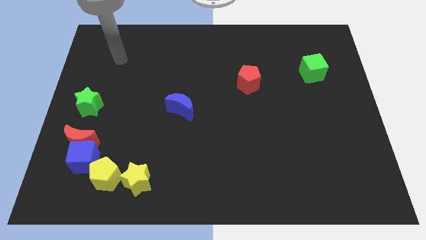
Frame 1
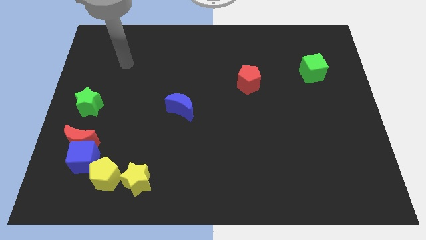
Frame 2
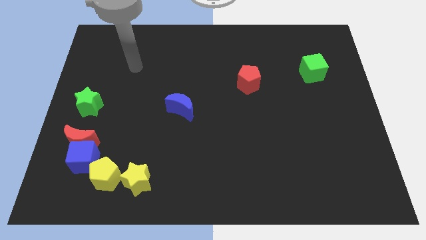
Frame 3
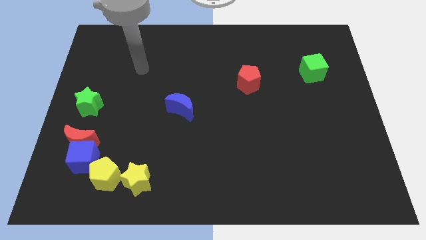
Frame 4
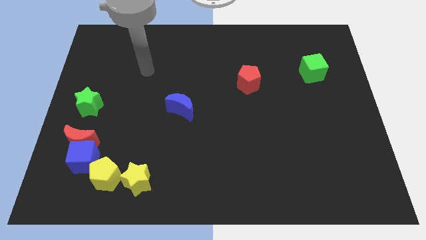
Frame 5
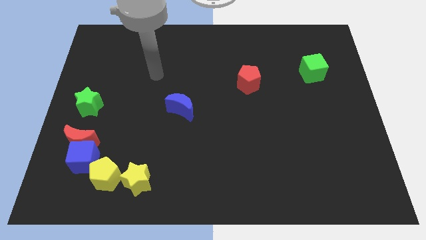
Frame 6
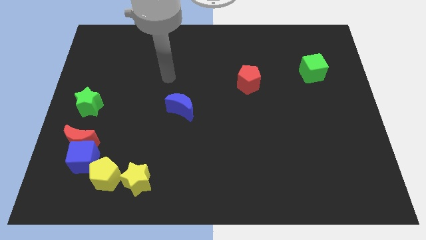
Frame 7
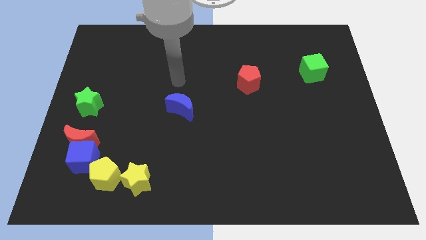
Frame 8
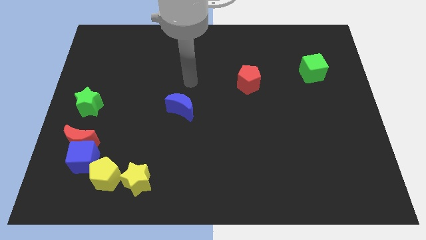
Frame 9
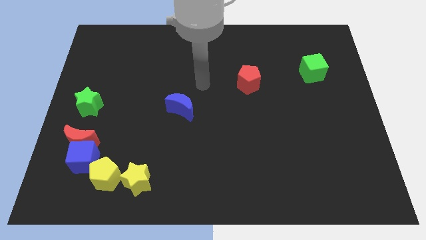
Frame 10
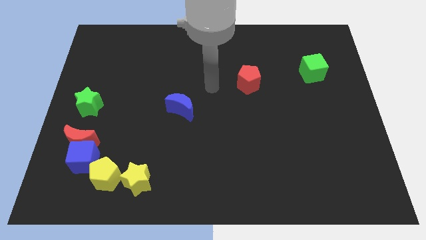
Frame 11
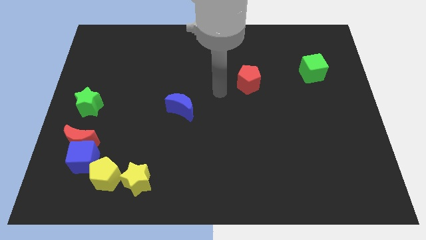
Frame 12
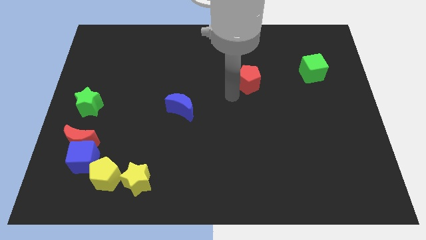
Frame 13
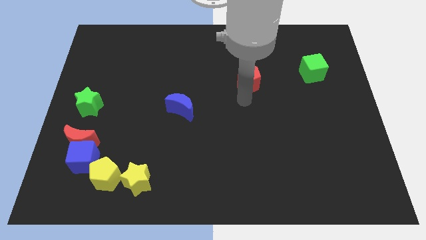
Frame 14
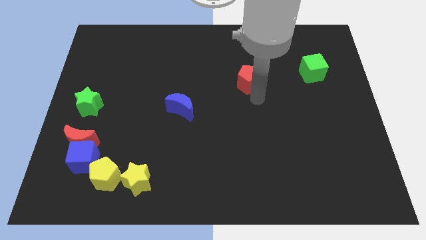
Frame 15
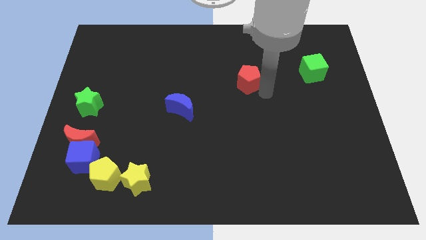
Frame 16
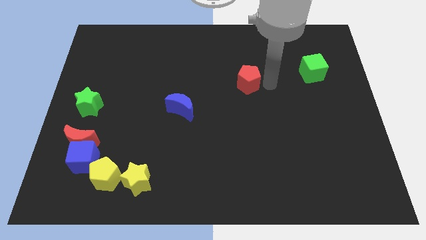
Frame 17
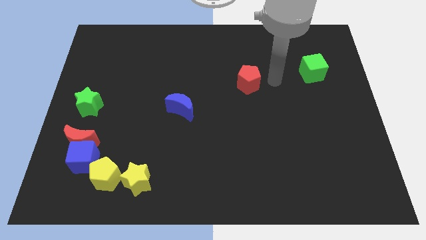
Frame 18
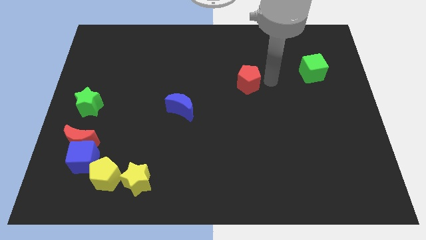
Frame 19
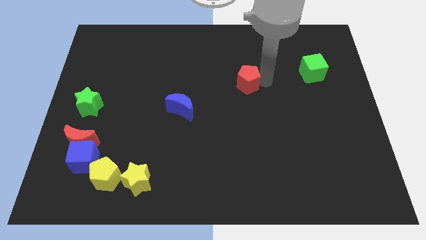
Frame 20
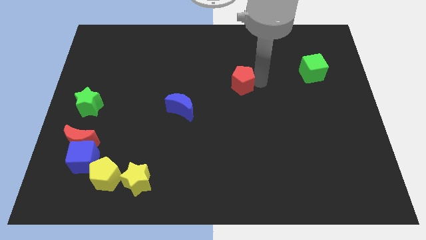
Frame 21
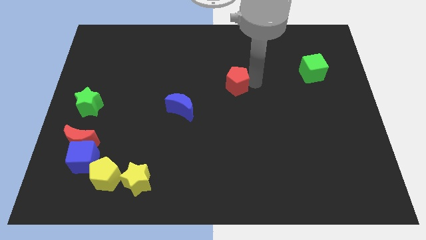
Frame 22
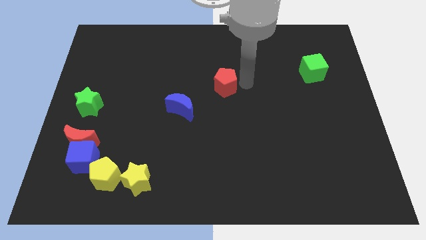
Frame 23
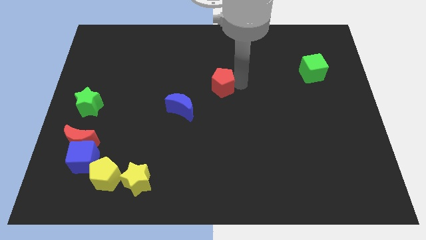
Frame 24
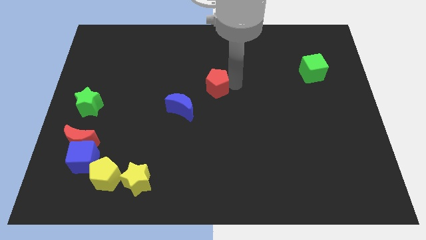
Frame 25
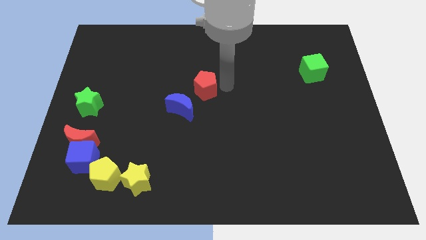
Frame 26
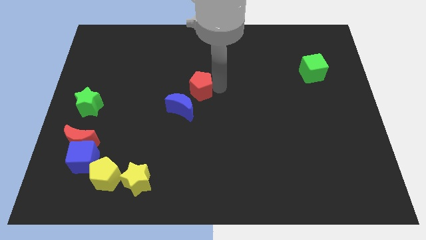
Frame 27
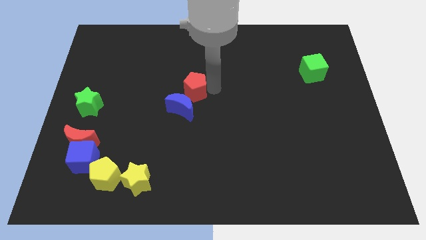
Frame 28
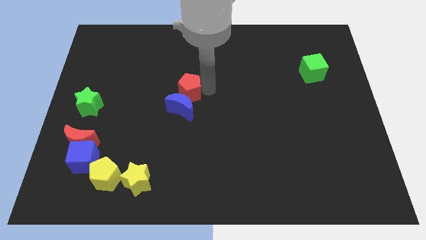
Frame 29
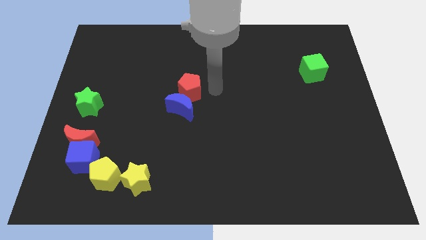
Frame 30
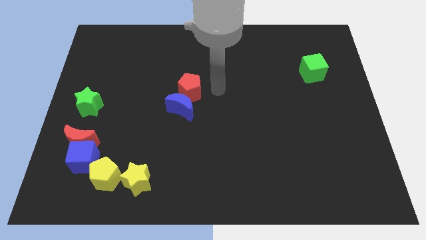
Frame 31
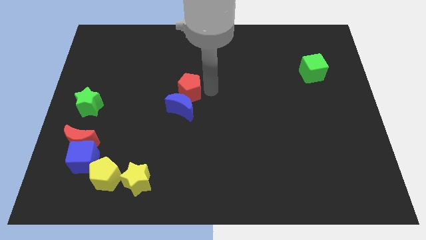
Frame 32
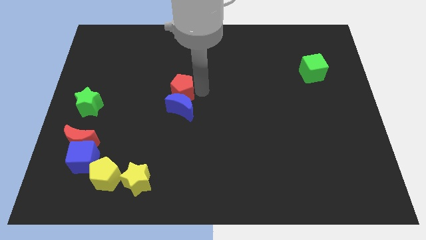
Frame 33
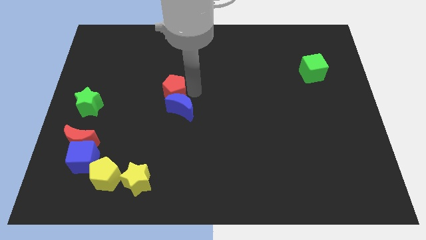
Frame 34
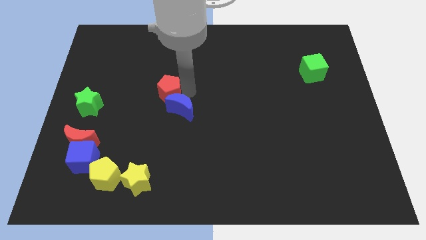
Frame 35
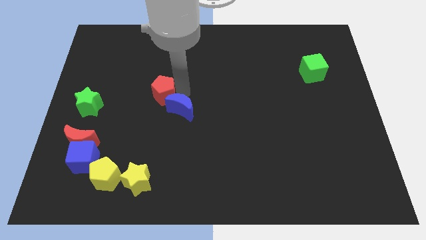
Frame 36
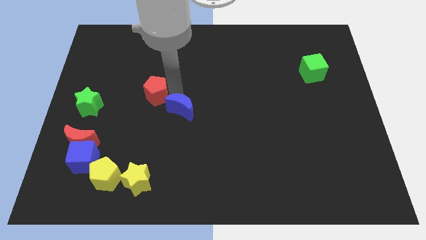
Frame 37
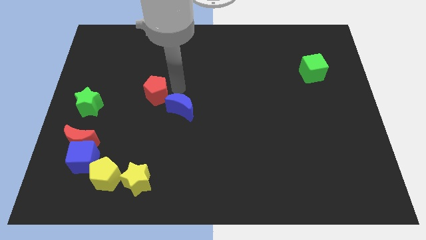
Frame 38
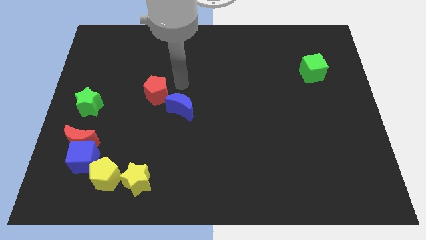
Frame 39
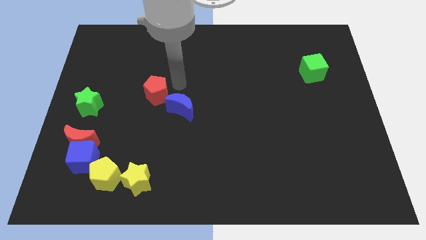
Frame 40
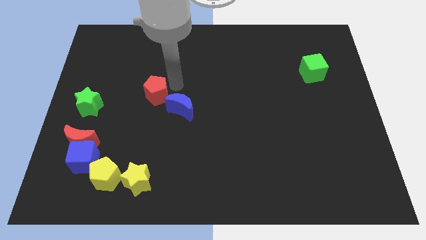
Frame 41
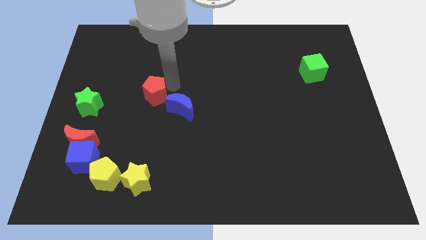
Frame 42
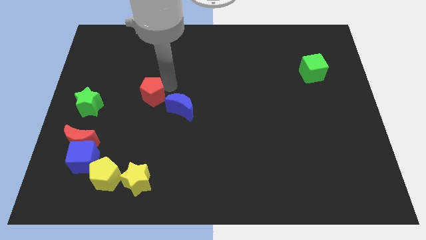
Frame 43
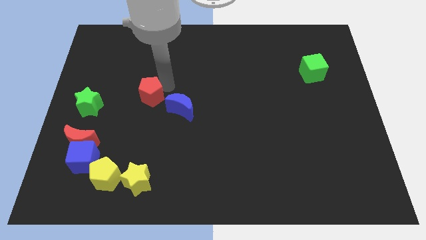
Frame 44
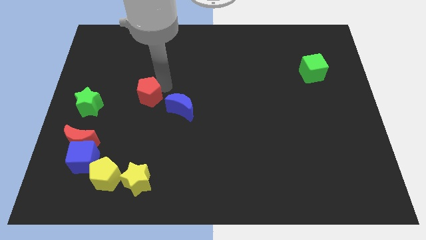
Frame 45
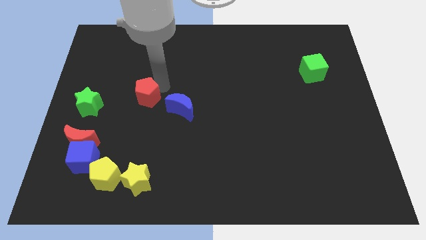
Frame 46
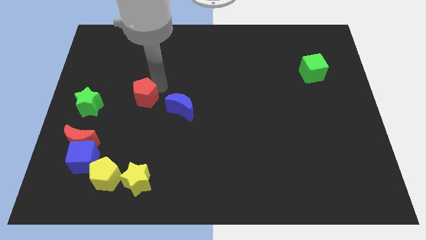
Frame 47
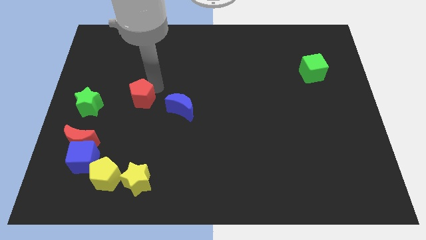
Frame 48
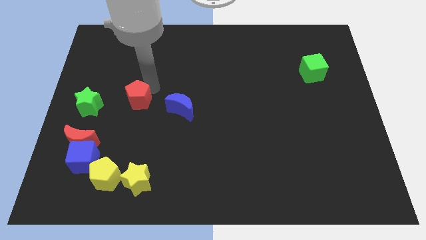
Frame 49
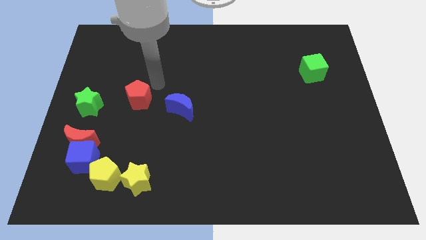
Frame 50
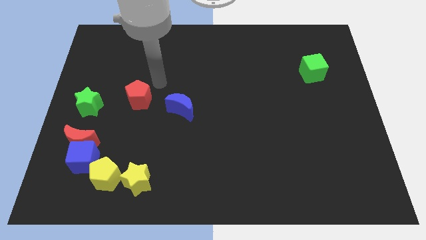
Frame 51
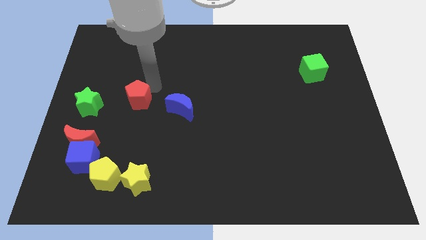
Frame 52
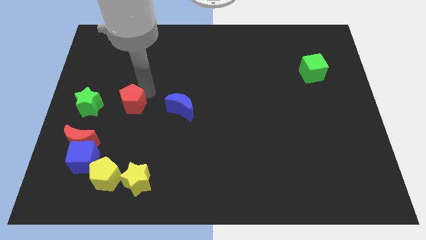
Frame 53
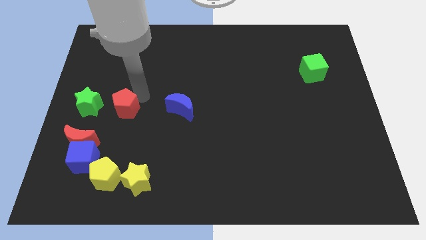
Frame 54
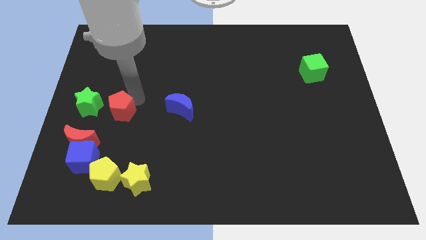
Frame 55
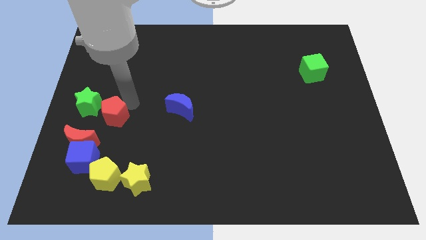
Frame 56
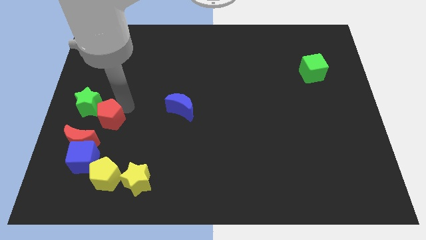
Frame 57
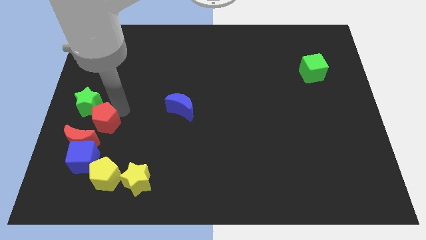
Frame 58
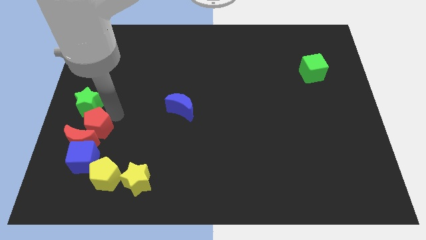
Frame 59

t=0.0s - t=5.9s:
put the red pentagon to the red moon

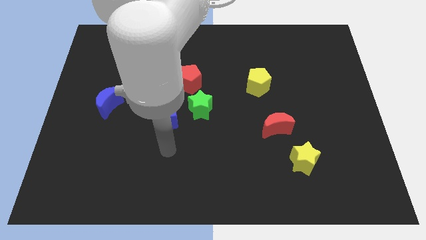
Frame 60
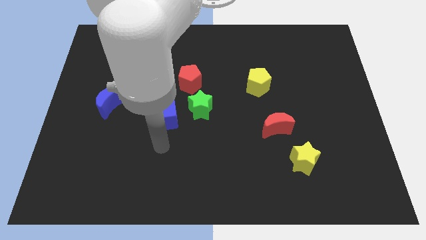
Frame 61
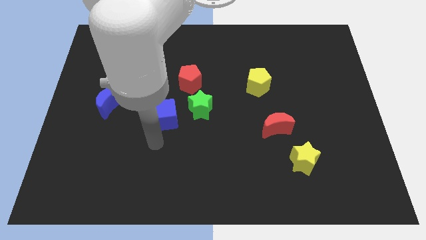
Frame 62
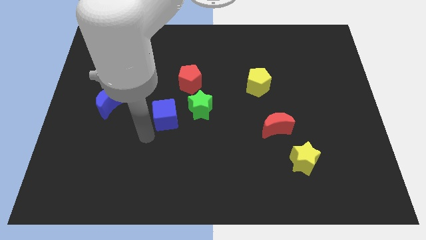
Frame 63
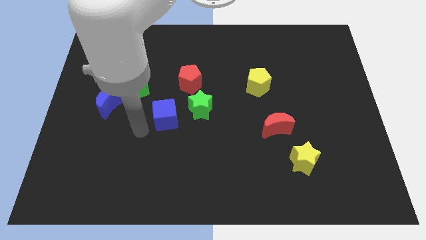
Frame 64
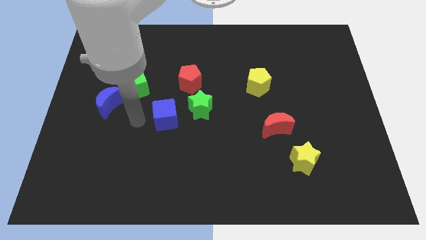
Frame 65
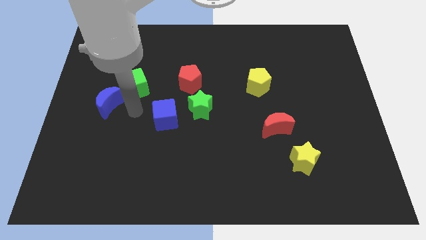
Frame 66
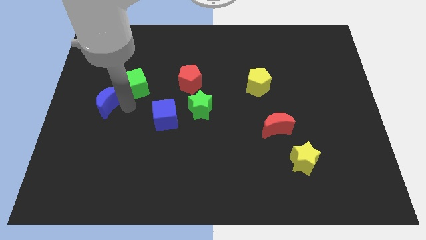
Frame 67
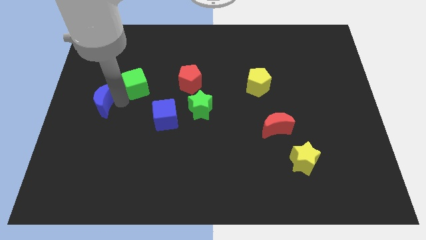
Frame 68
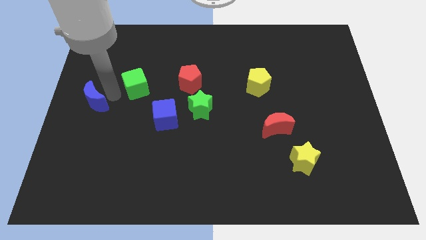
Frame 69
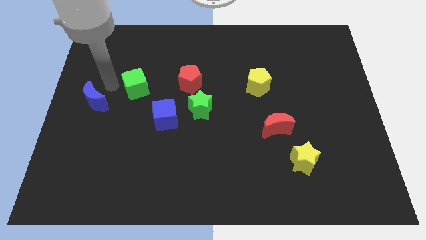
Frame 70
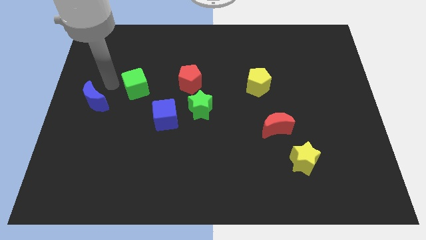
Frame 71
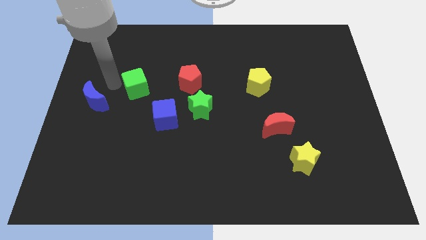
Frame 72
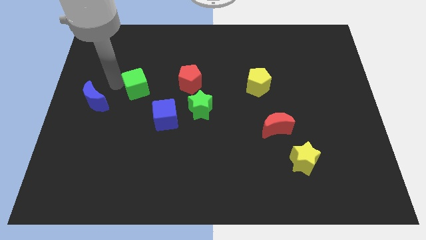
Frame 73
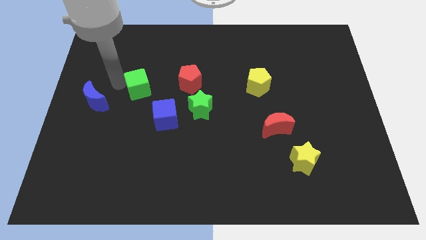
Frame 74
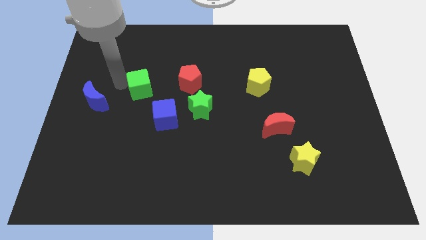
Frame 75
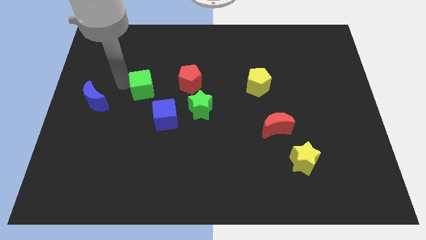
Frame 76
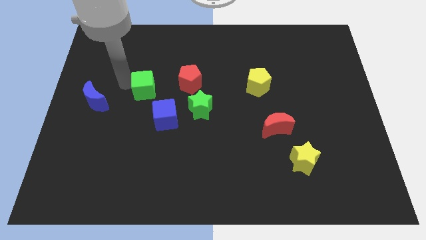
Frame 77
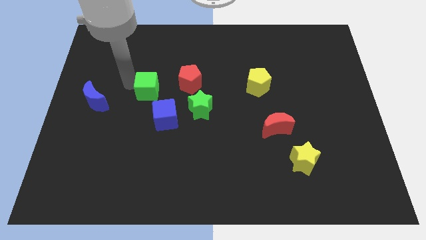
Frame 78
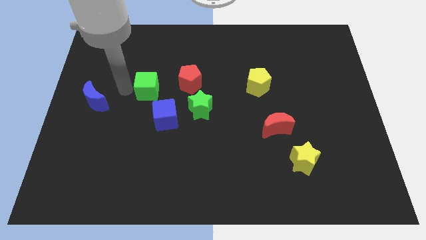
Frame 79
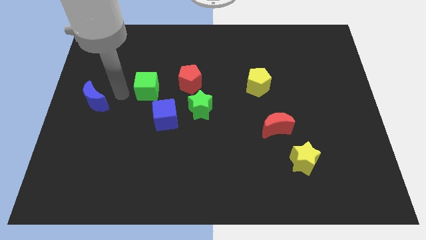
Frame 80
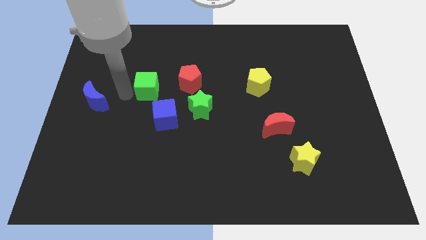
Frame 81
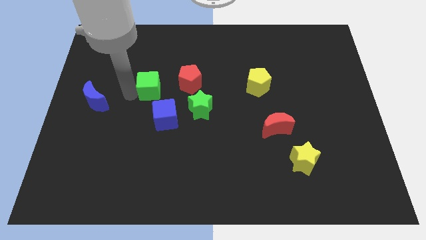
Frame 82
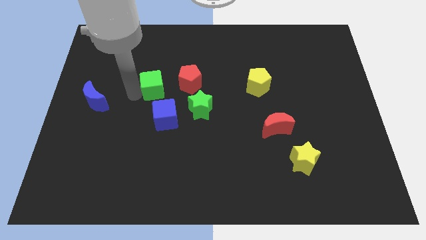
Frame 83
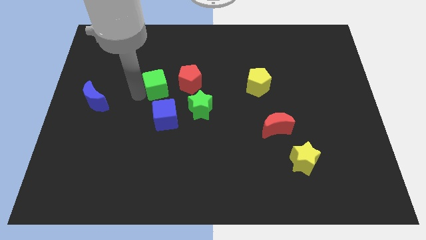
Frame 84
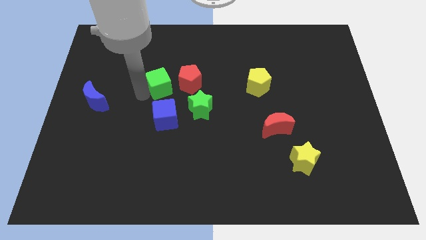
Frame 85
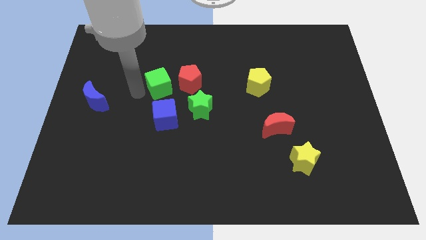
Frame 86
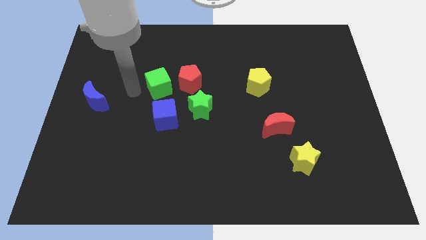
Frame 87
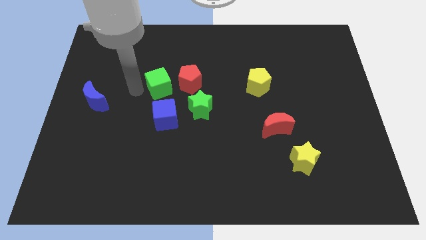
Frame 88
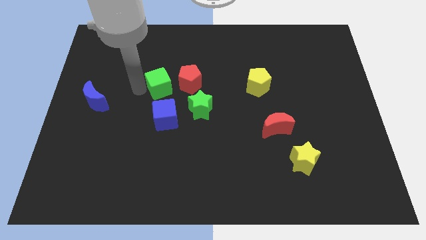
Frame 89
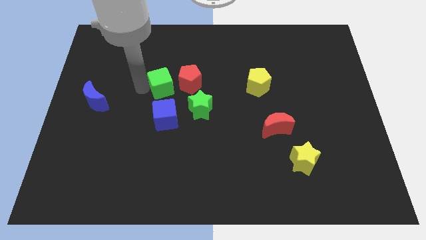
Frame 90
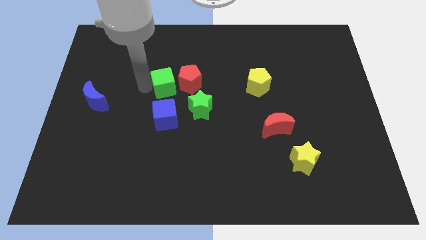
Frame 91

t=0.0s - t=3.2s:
slide the green cube towards the red pentagon
